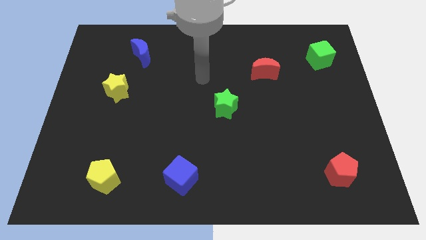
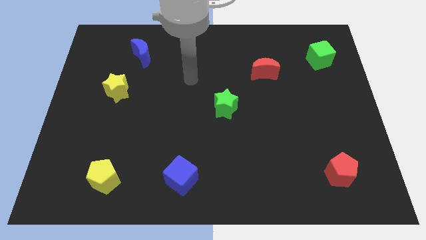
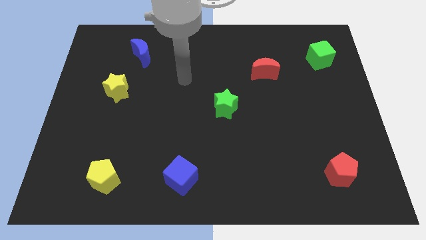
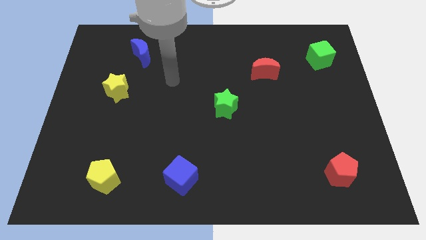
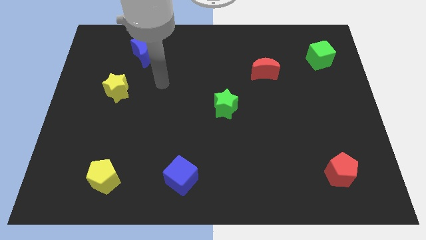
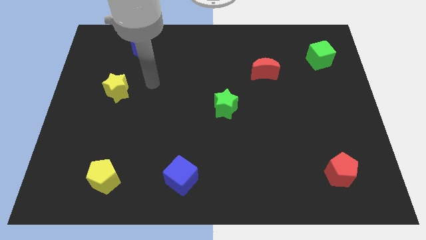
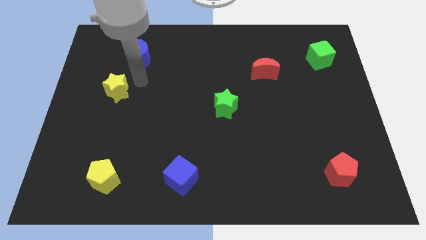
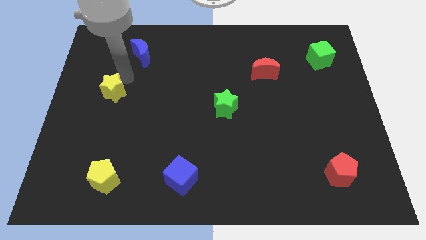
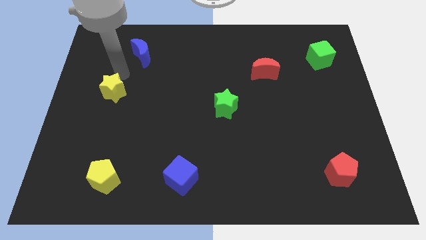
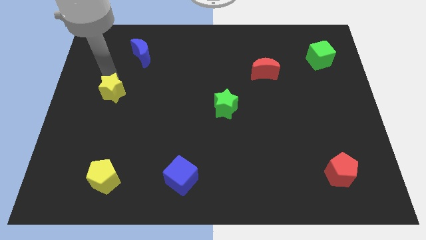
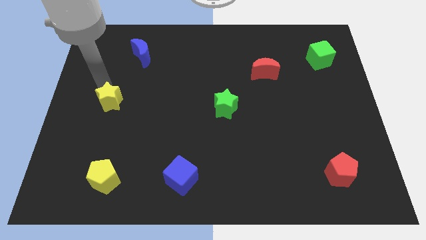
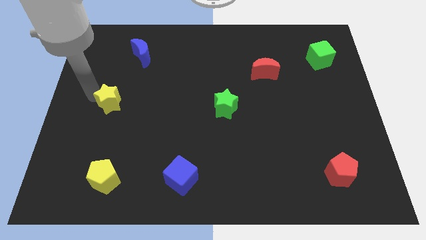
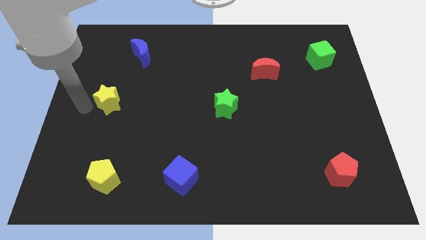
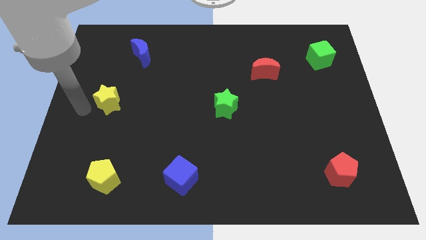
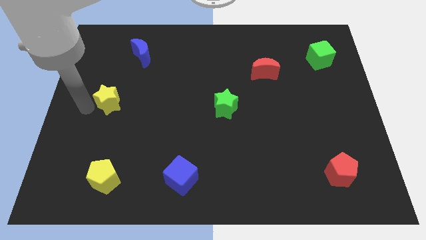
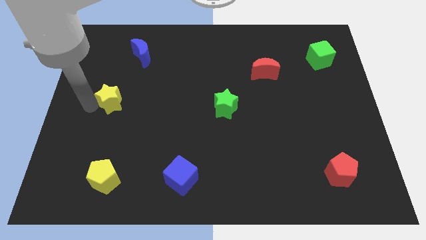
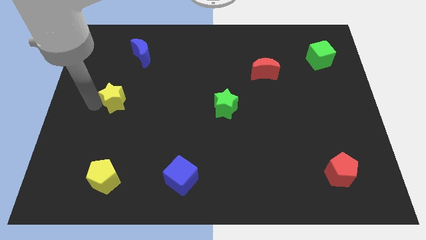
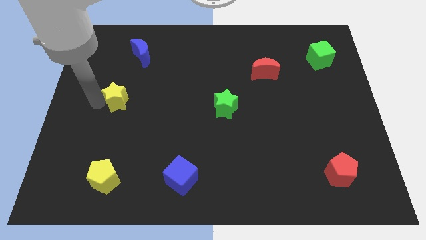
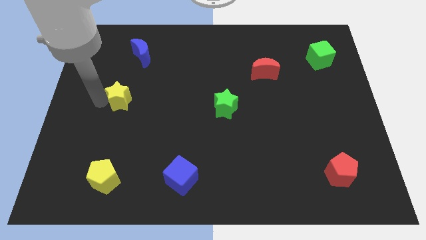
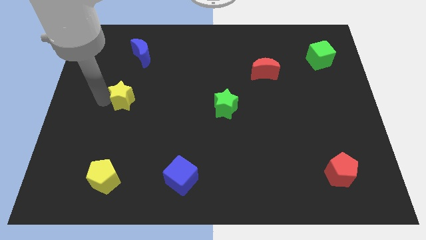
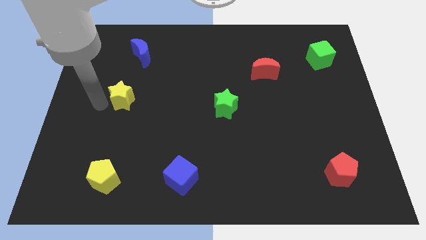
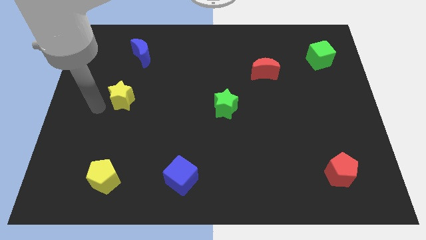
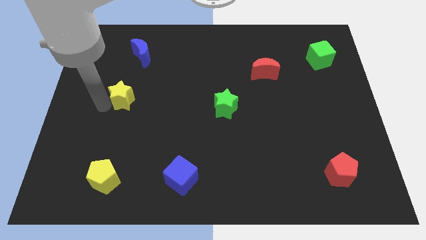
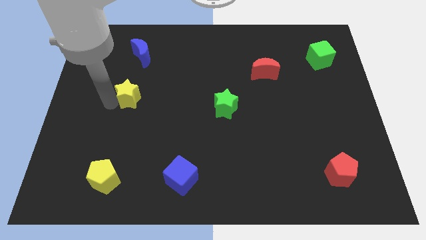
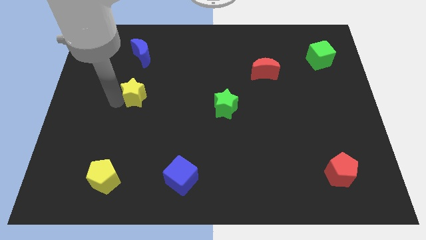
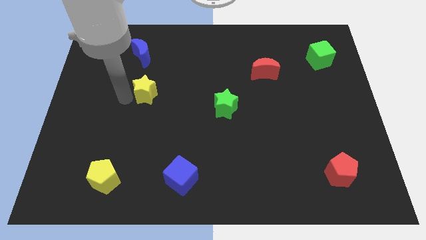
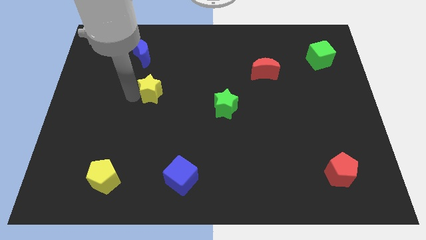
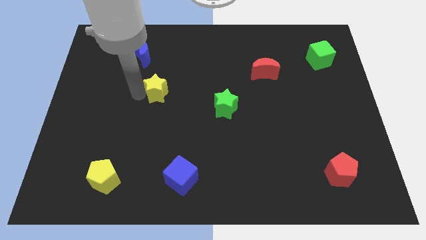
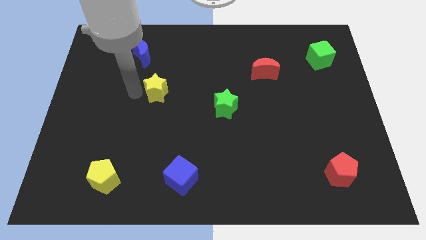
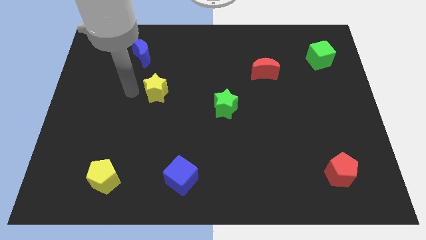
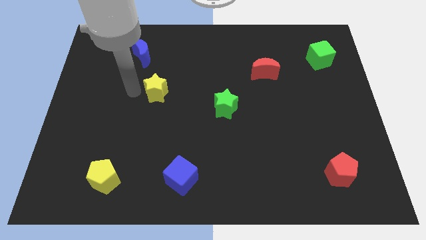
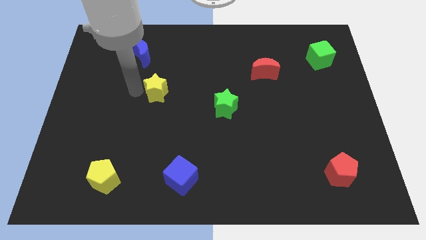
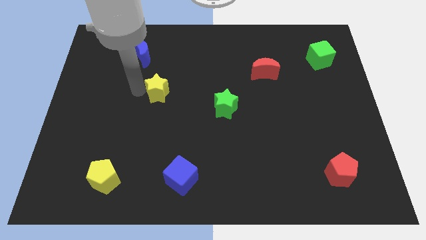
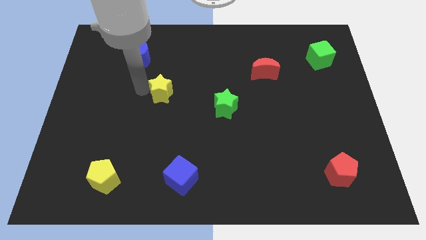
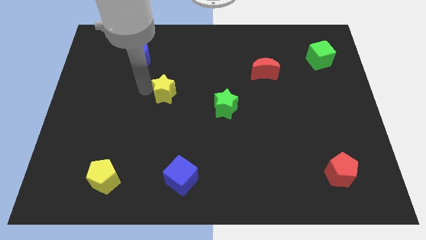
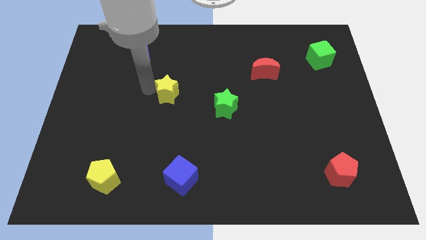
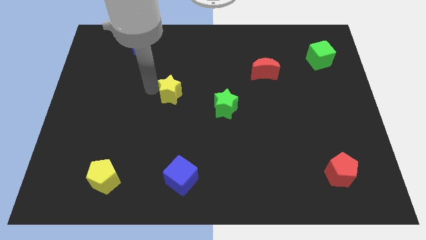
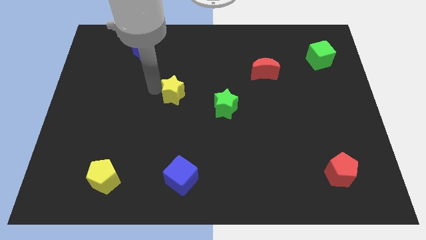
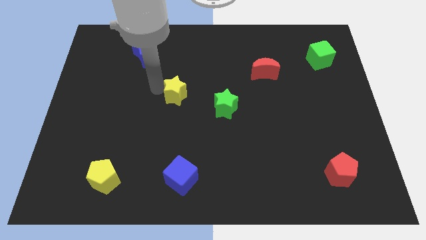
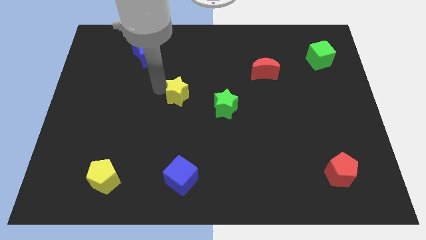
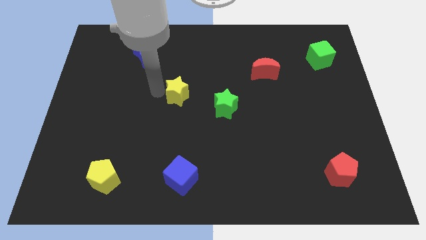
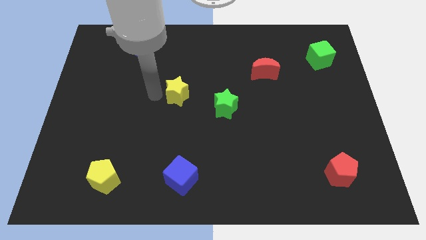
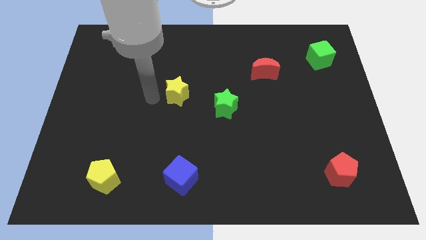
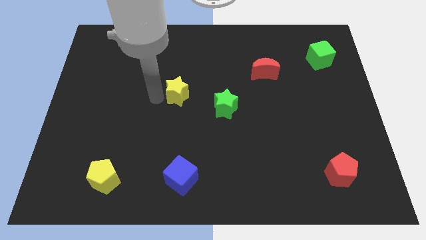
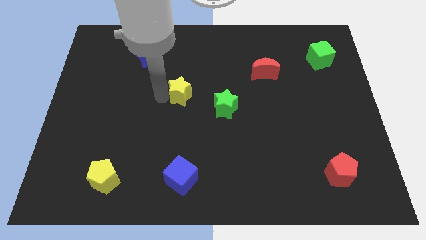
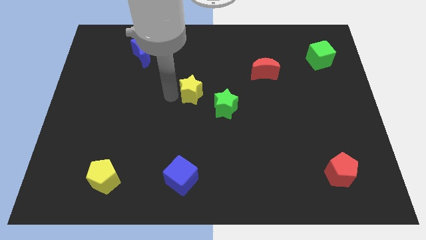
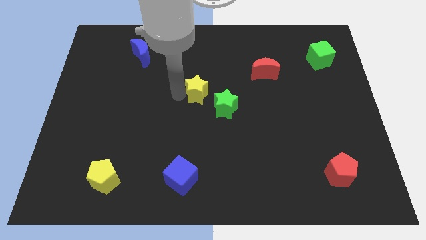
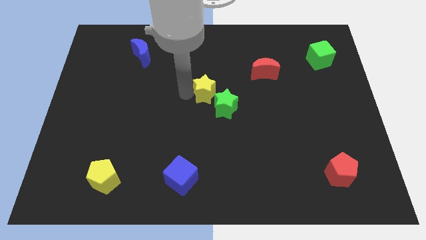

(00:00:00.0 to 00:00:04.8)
slide the yellow star right

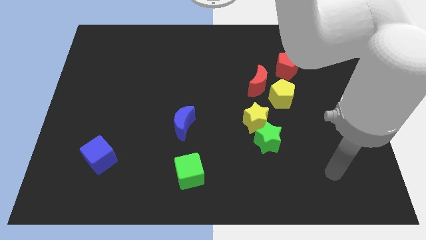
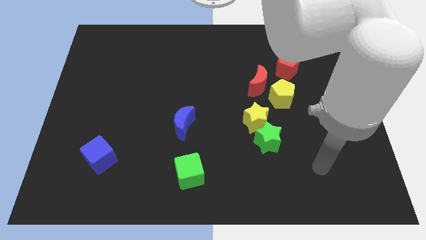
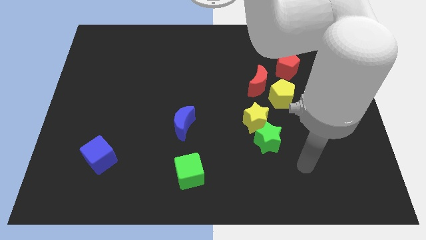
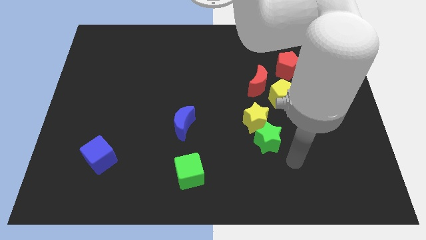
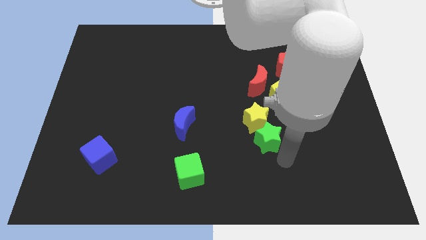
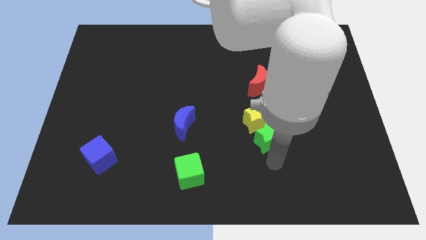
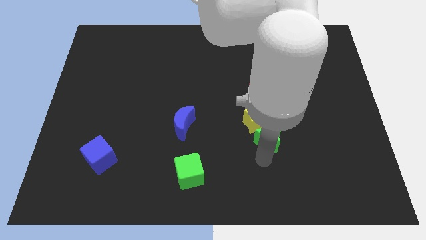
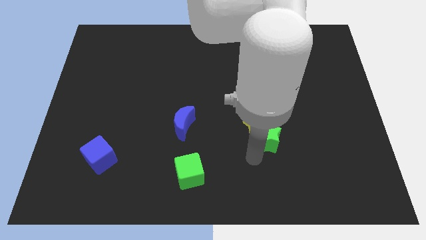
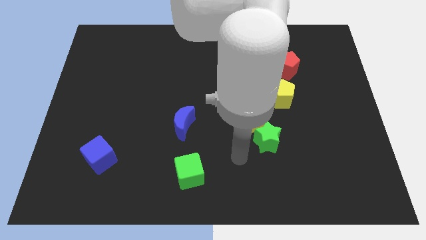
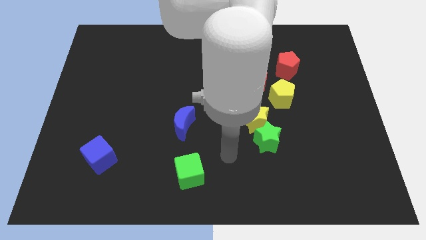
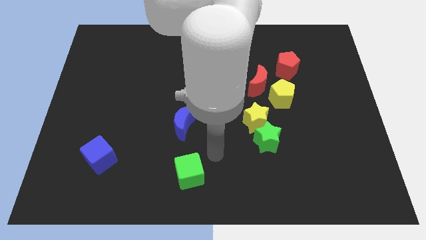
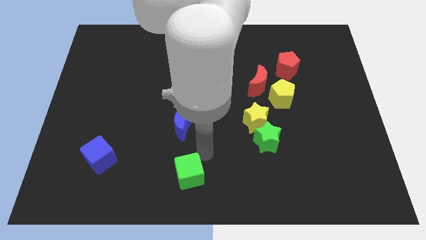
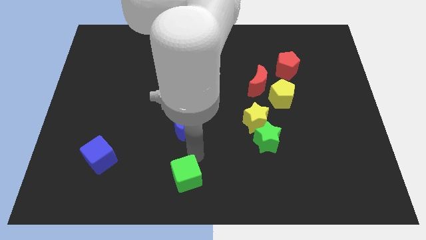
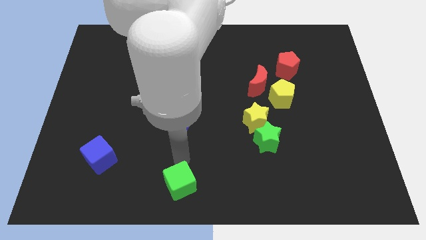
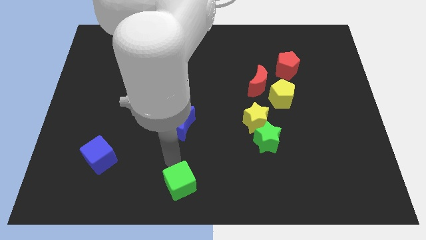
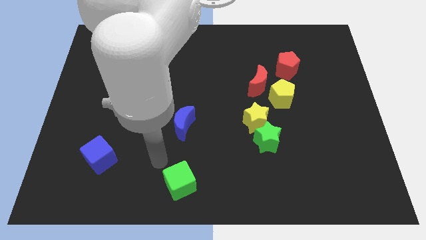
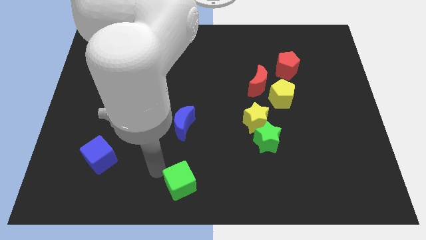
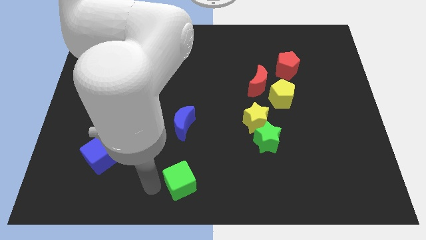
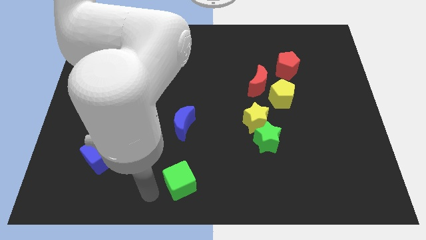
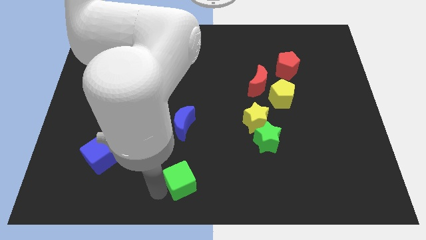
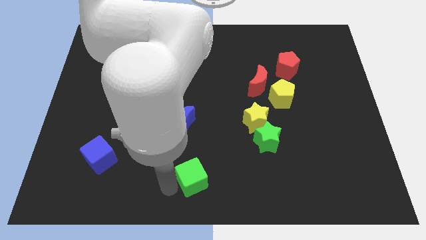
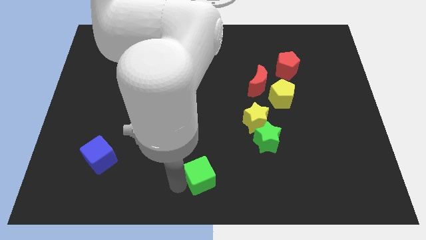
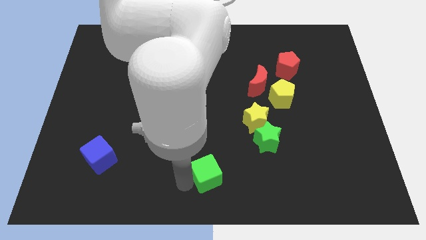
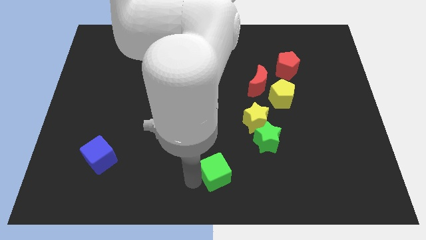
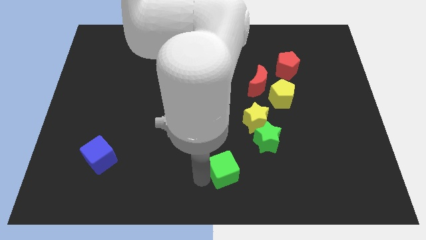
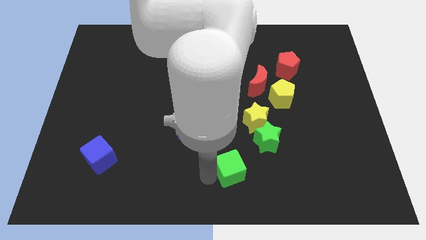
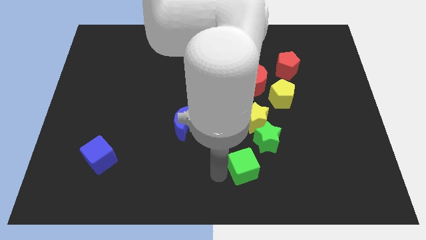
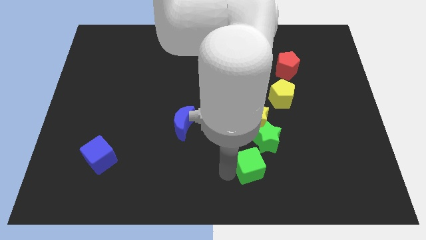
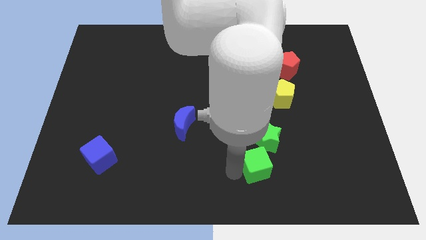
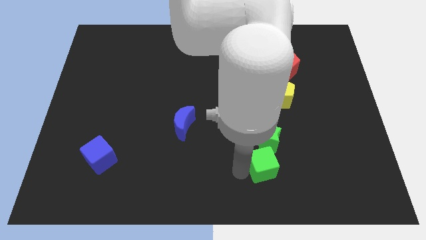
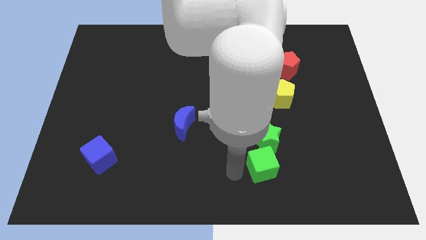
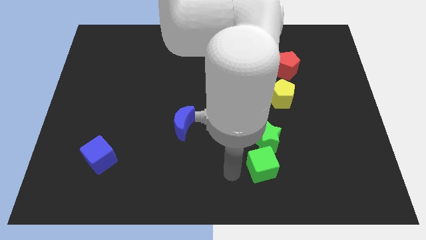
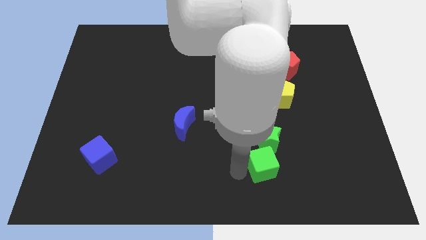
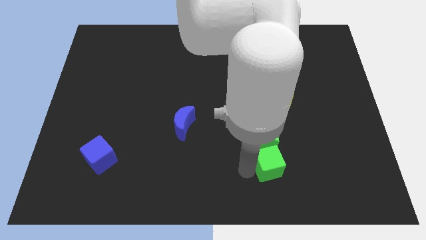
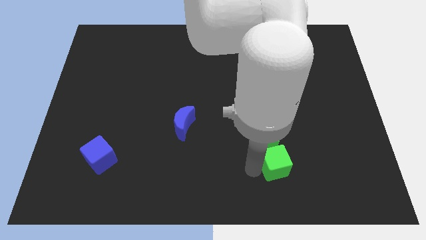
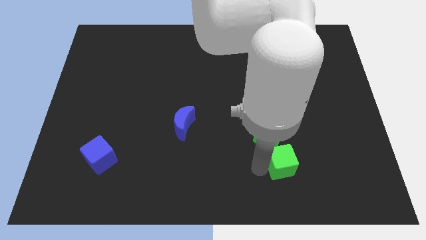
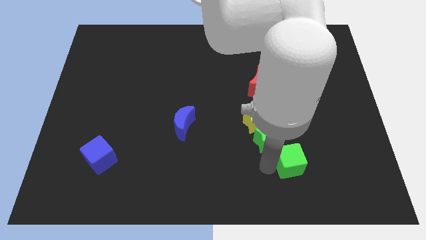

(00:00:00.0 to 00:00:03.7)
slide the green cube right
